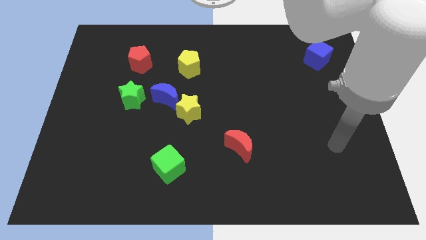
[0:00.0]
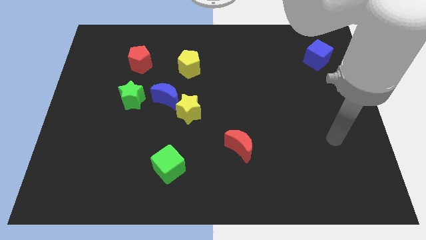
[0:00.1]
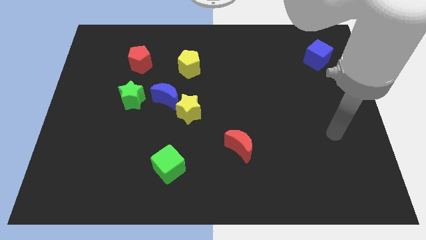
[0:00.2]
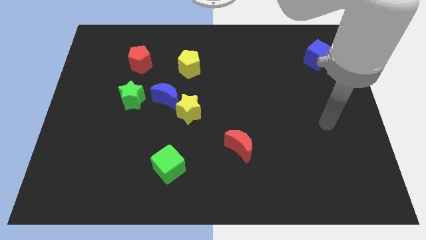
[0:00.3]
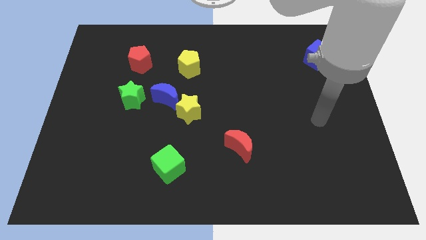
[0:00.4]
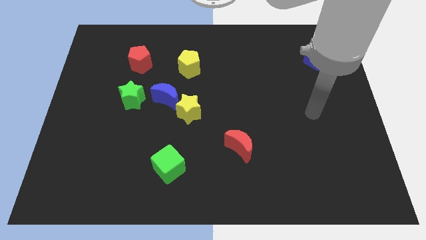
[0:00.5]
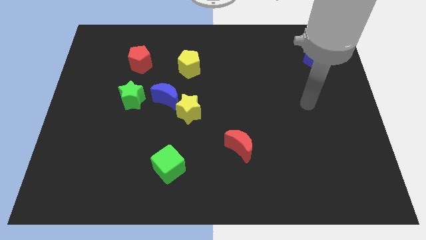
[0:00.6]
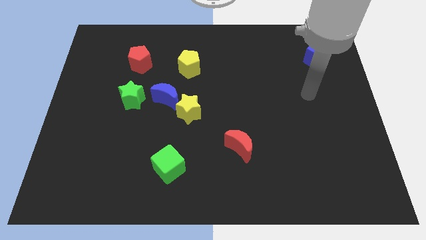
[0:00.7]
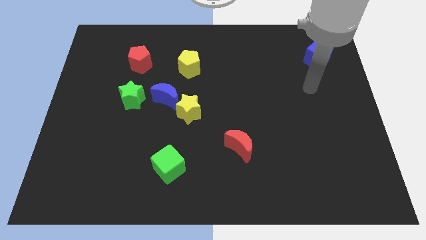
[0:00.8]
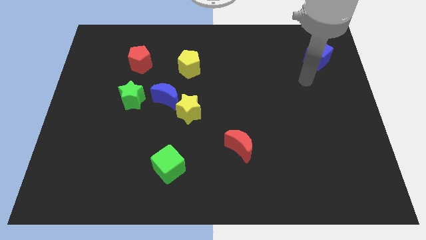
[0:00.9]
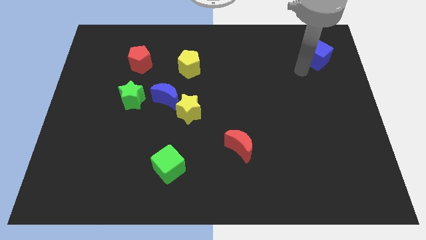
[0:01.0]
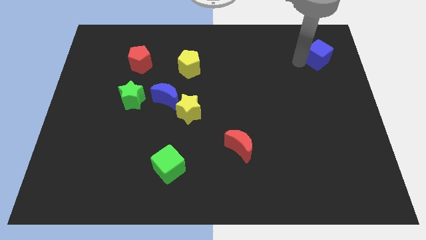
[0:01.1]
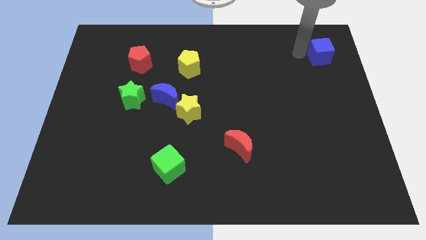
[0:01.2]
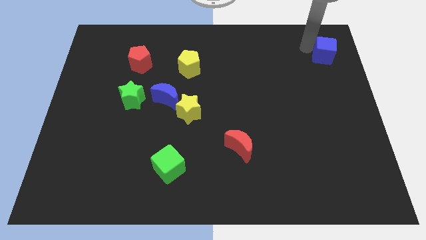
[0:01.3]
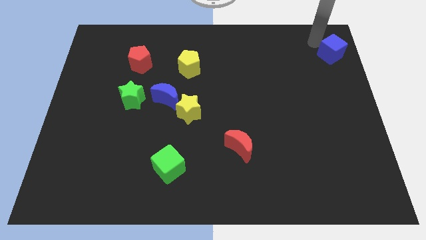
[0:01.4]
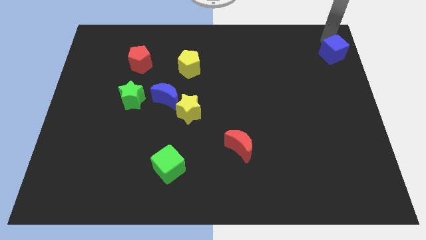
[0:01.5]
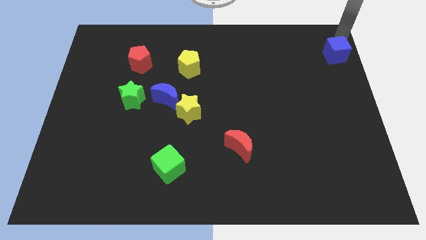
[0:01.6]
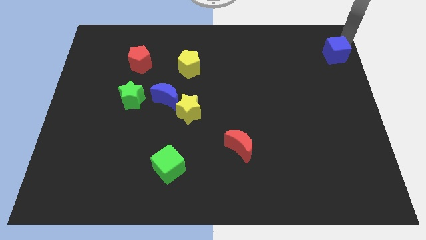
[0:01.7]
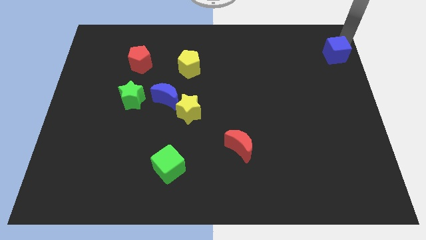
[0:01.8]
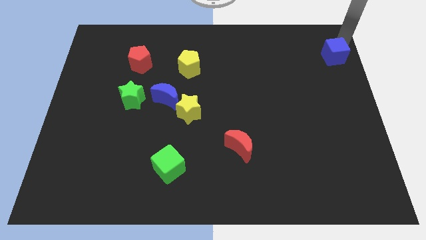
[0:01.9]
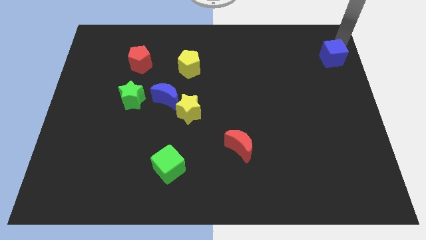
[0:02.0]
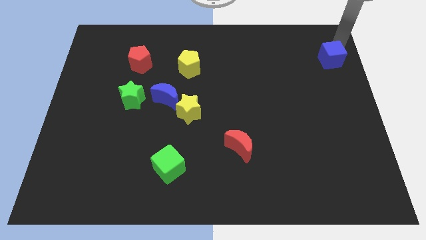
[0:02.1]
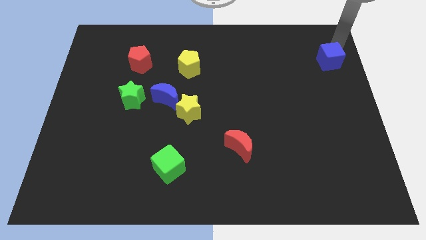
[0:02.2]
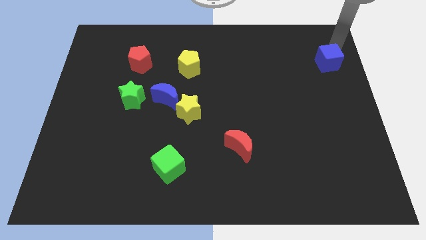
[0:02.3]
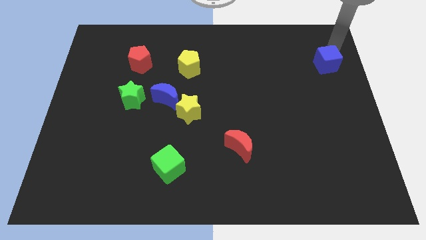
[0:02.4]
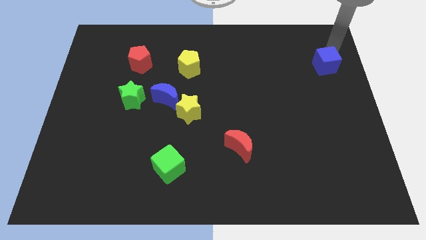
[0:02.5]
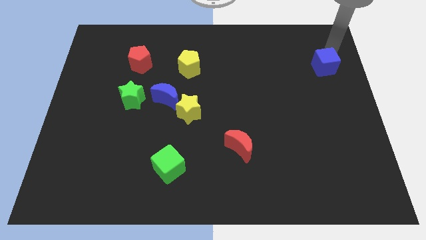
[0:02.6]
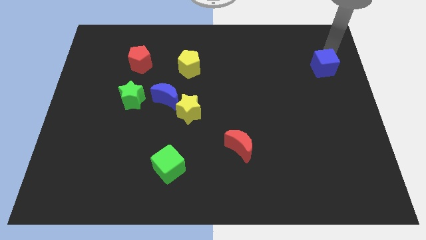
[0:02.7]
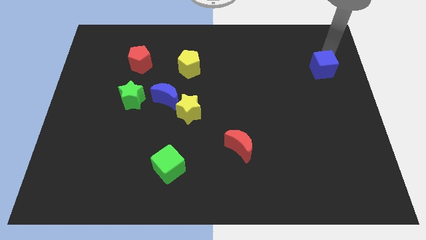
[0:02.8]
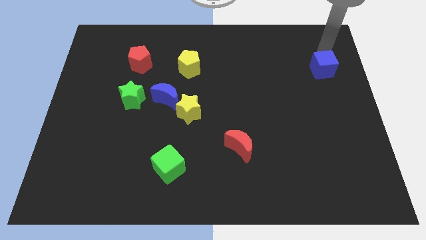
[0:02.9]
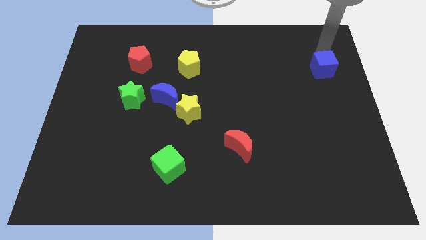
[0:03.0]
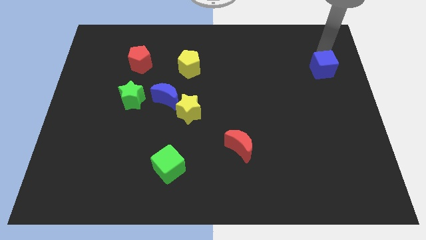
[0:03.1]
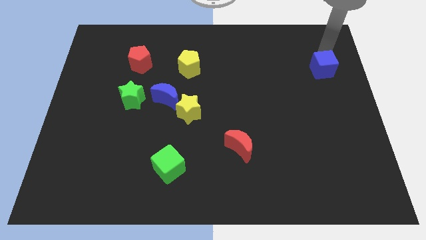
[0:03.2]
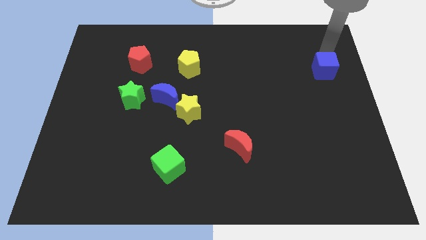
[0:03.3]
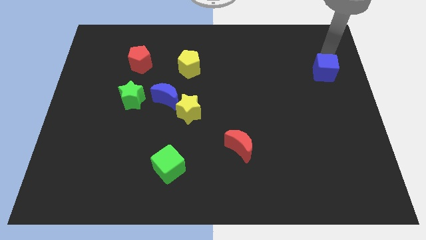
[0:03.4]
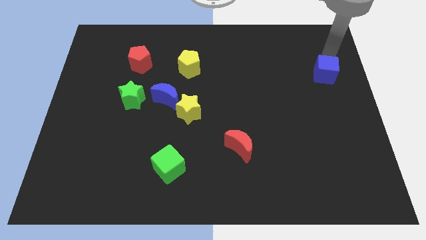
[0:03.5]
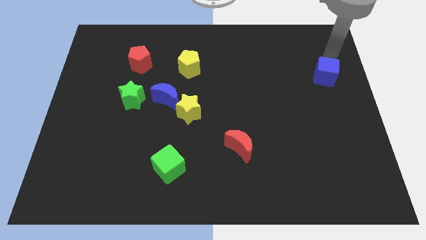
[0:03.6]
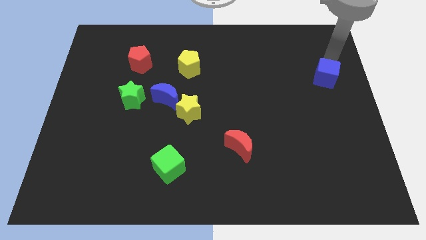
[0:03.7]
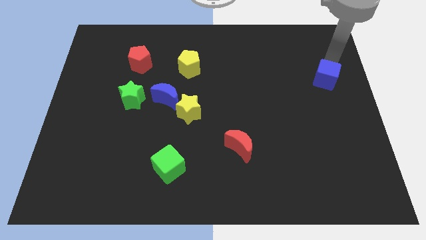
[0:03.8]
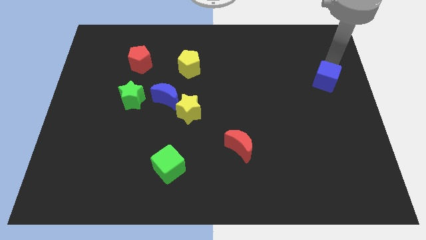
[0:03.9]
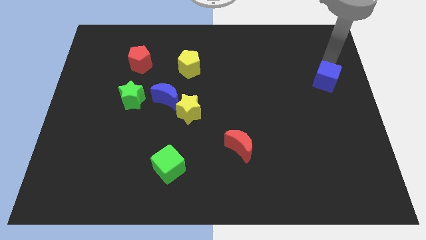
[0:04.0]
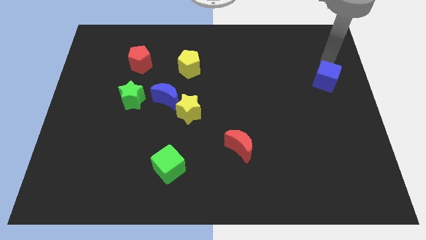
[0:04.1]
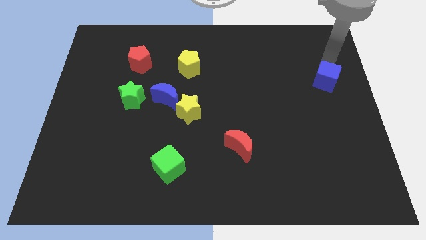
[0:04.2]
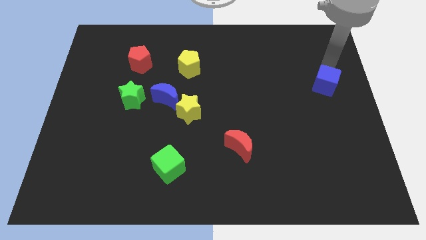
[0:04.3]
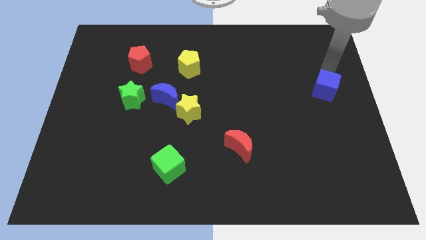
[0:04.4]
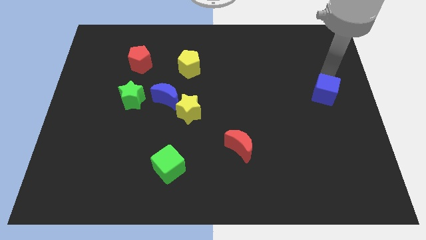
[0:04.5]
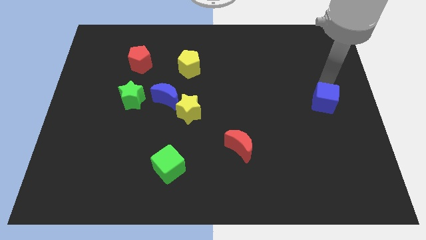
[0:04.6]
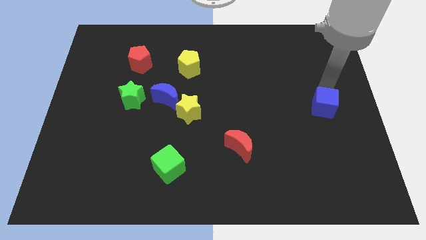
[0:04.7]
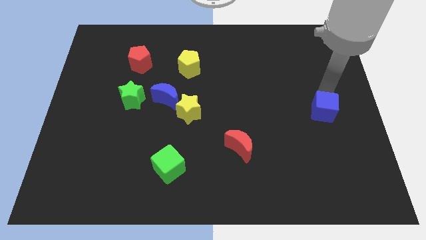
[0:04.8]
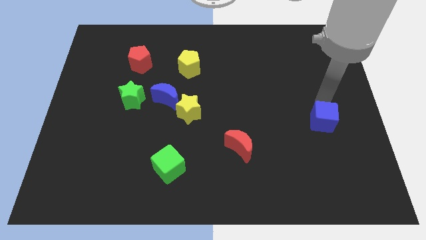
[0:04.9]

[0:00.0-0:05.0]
move the blue cube down

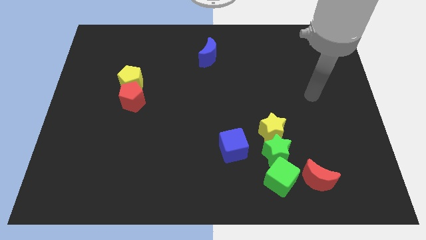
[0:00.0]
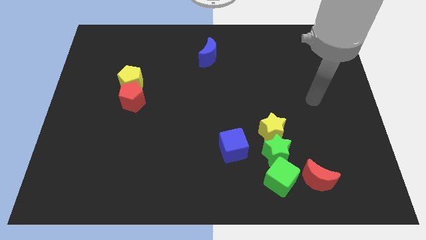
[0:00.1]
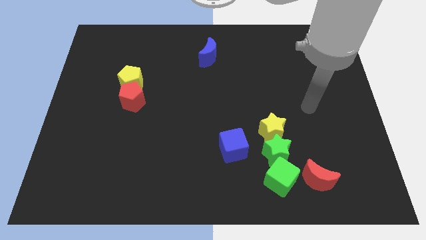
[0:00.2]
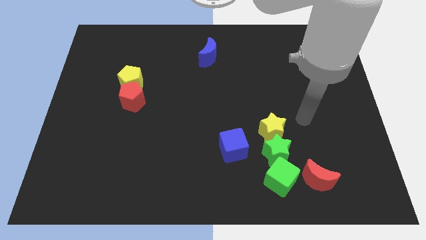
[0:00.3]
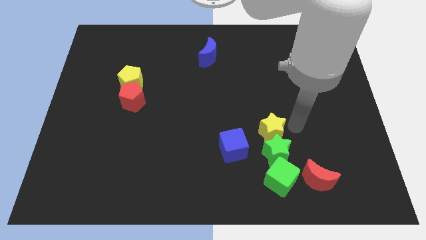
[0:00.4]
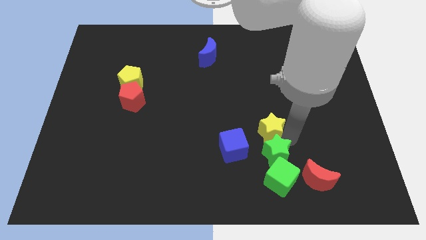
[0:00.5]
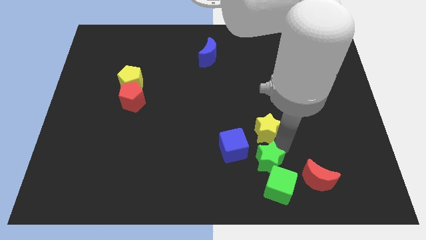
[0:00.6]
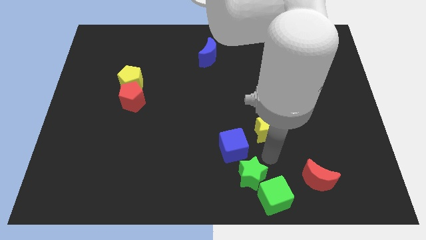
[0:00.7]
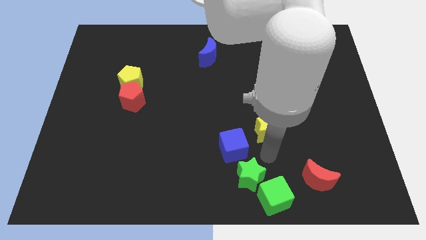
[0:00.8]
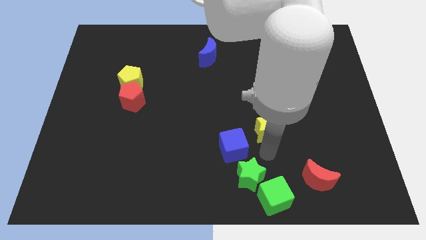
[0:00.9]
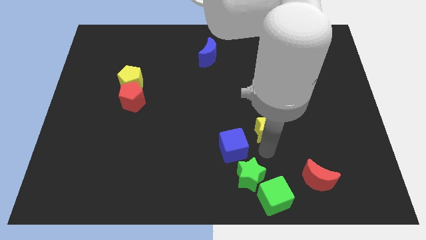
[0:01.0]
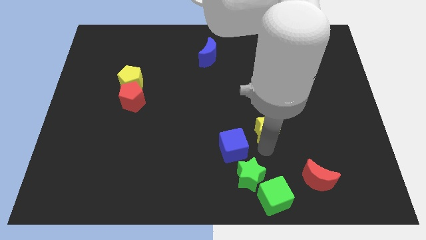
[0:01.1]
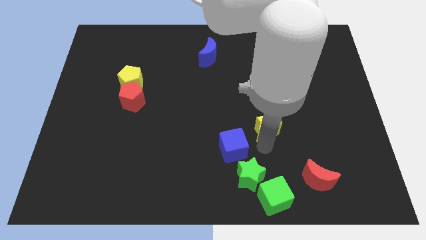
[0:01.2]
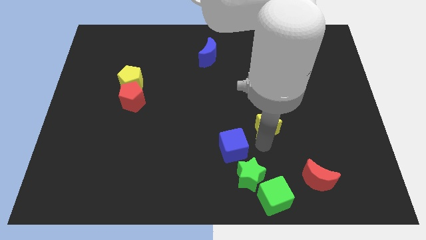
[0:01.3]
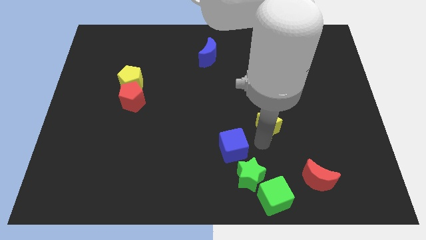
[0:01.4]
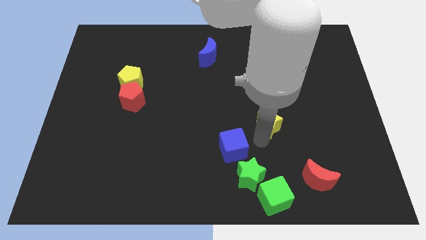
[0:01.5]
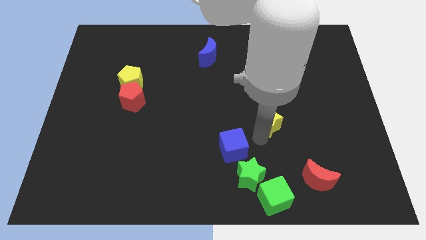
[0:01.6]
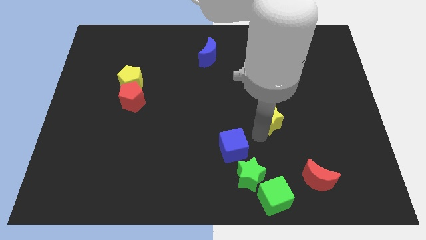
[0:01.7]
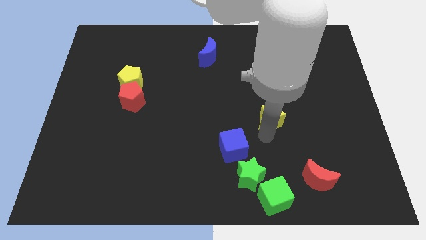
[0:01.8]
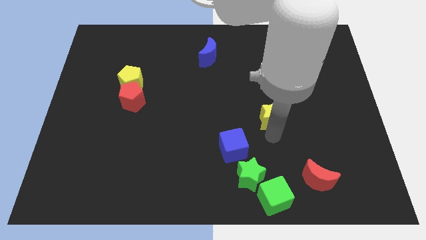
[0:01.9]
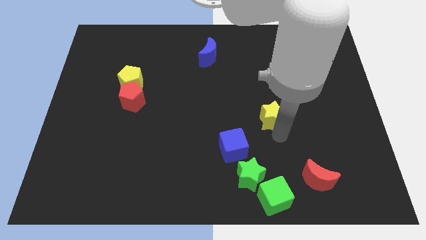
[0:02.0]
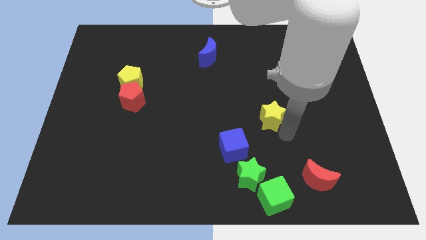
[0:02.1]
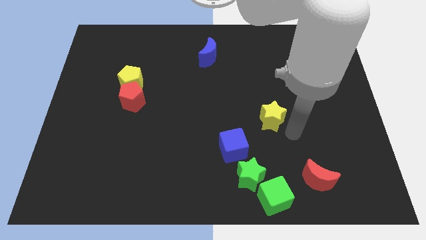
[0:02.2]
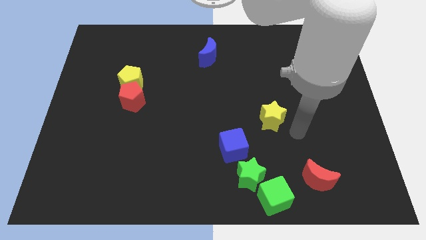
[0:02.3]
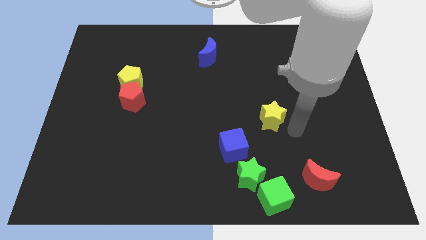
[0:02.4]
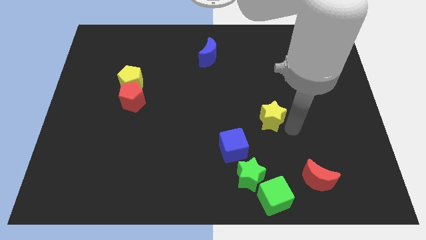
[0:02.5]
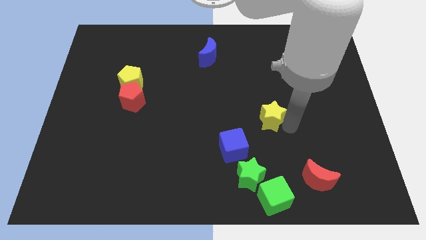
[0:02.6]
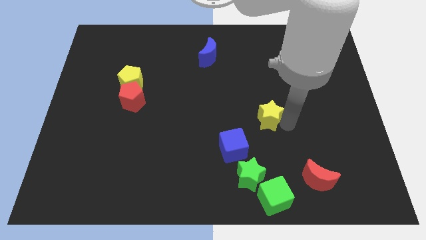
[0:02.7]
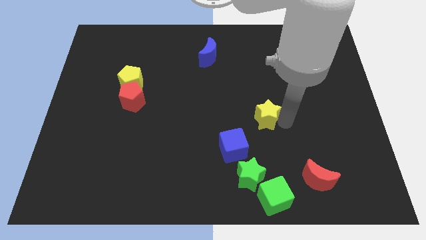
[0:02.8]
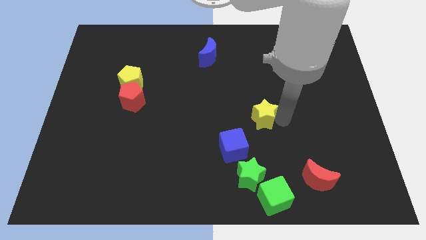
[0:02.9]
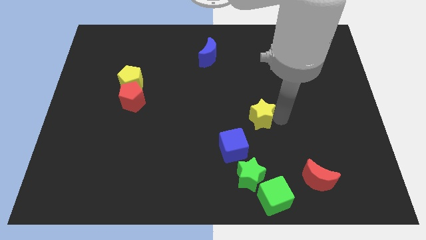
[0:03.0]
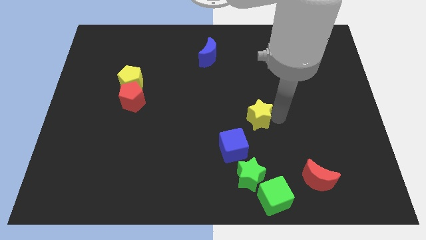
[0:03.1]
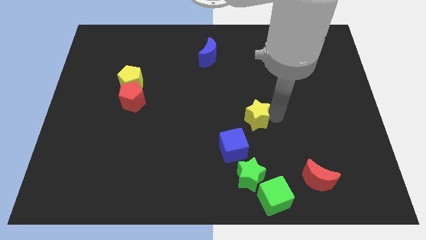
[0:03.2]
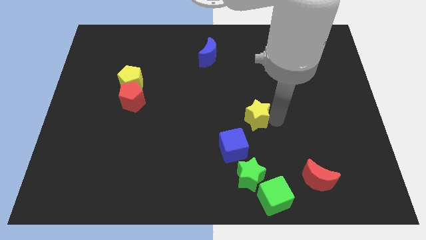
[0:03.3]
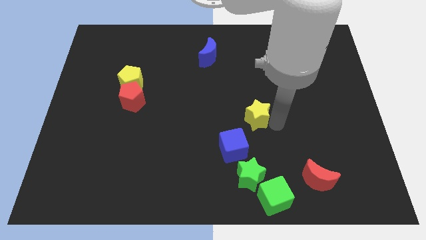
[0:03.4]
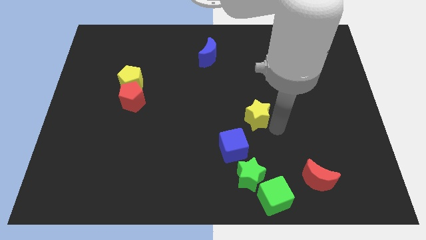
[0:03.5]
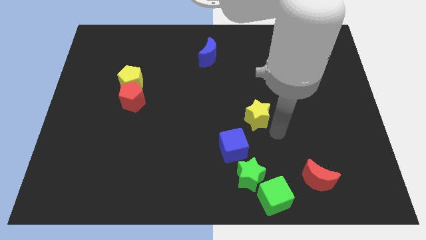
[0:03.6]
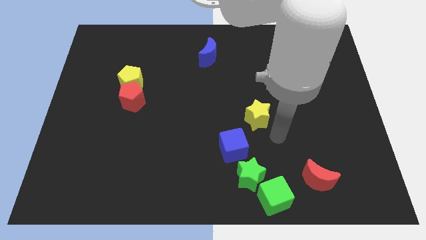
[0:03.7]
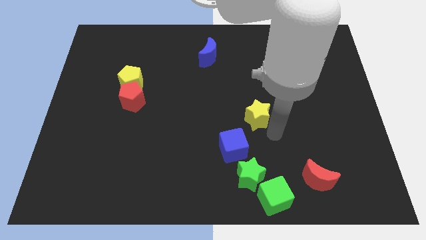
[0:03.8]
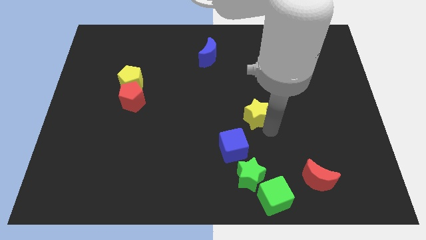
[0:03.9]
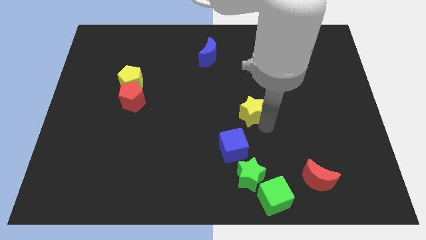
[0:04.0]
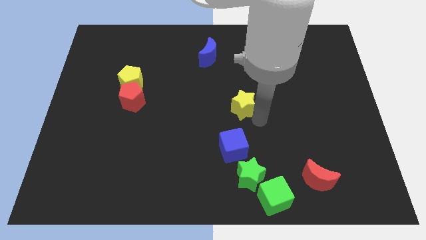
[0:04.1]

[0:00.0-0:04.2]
slide the yellow star somewhat upwards and left
